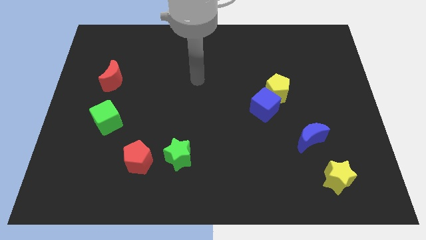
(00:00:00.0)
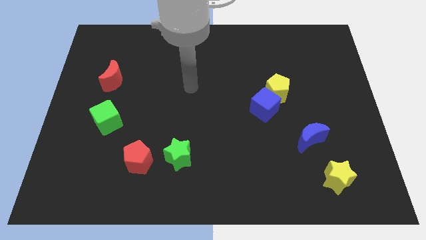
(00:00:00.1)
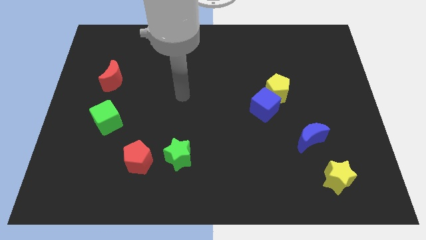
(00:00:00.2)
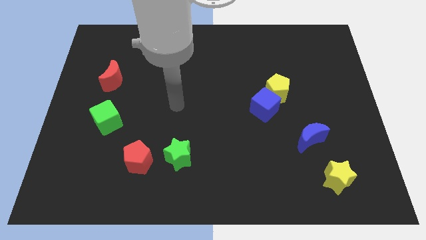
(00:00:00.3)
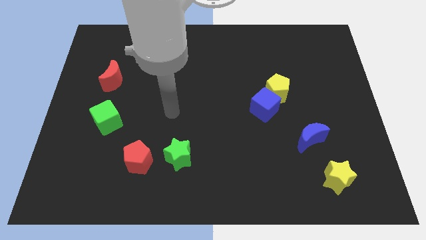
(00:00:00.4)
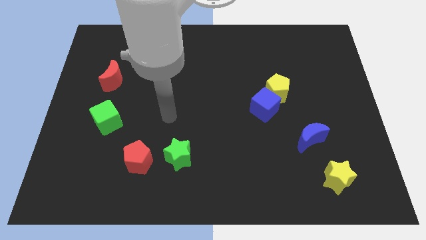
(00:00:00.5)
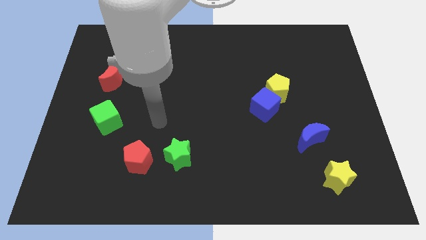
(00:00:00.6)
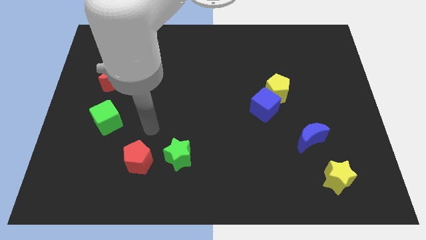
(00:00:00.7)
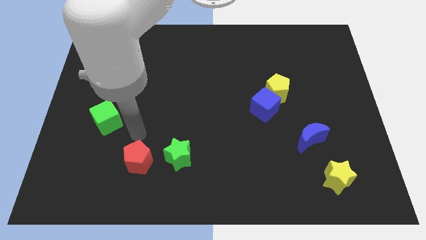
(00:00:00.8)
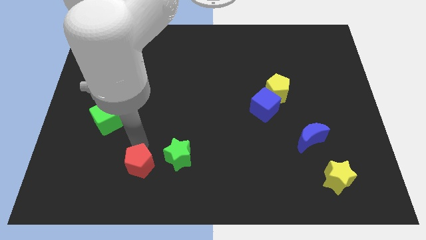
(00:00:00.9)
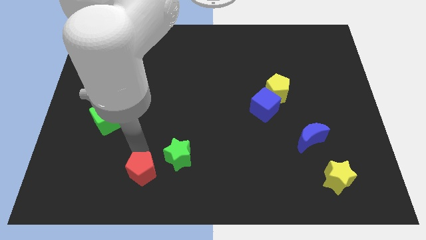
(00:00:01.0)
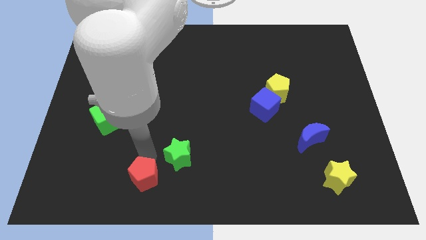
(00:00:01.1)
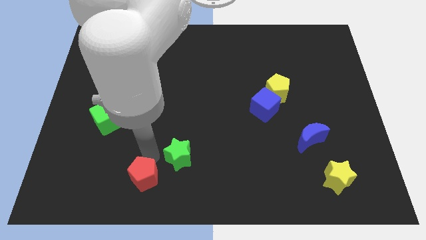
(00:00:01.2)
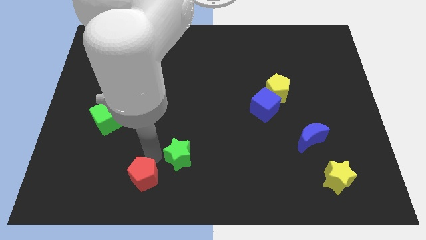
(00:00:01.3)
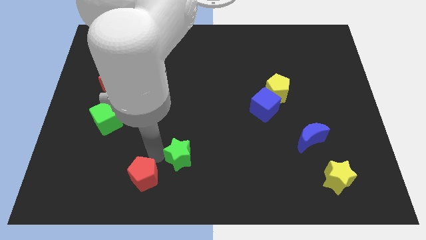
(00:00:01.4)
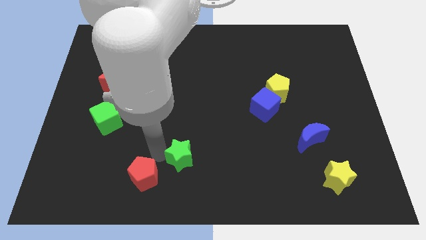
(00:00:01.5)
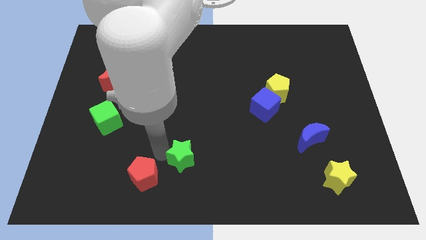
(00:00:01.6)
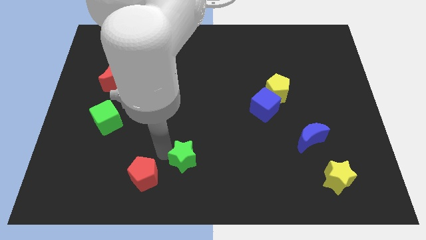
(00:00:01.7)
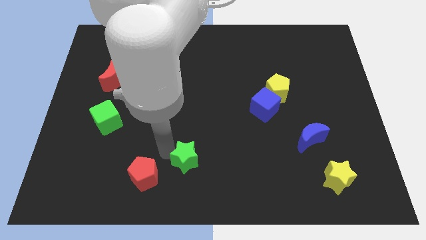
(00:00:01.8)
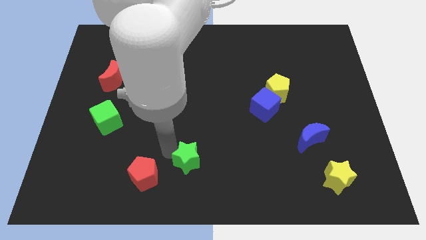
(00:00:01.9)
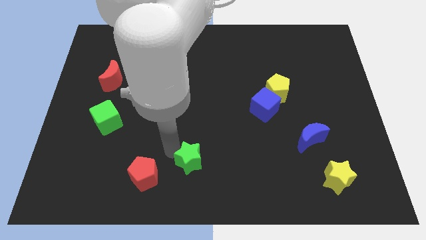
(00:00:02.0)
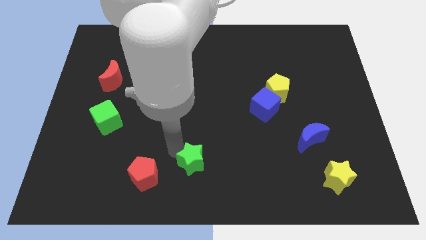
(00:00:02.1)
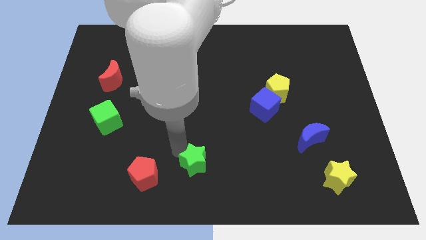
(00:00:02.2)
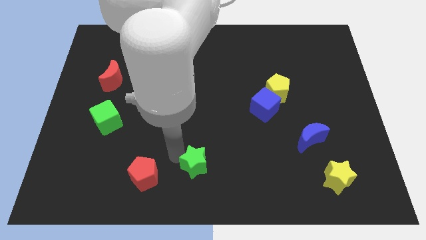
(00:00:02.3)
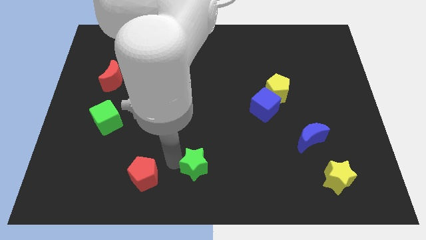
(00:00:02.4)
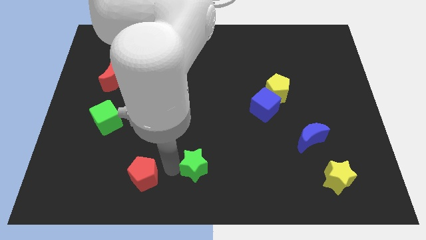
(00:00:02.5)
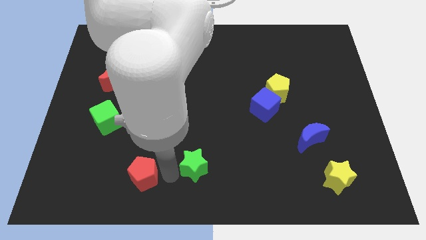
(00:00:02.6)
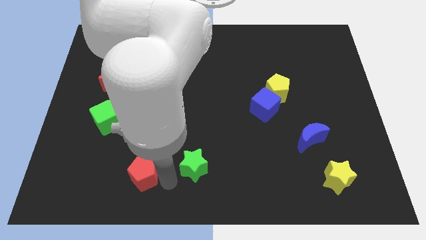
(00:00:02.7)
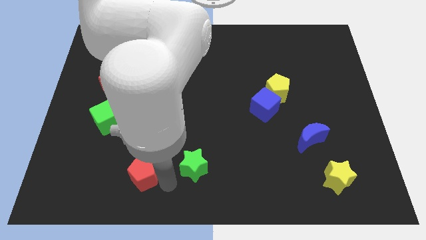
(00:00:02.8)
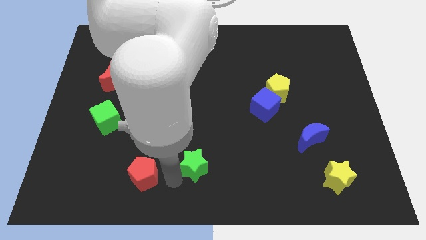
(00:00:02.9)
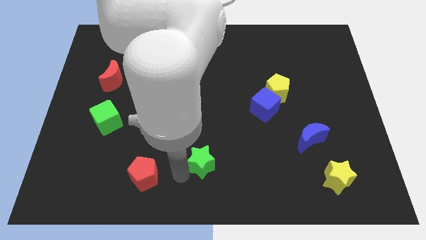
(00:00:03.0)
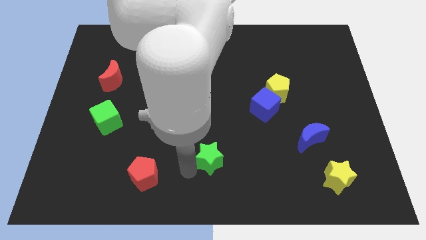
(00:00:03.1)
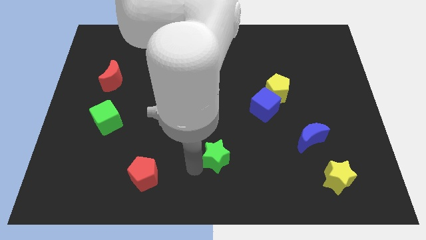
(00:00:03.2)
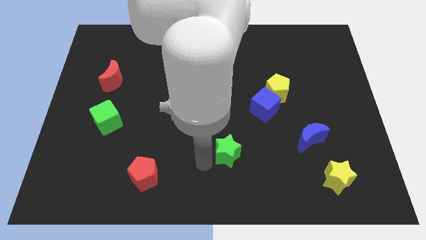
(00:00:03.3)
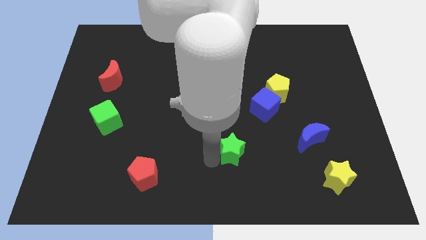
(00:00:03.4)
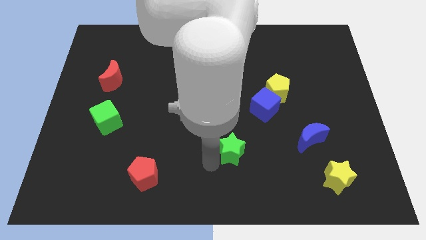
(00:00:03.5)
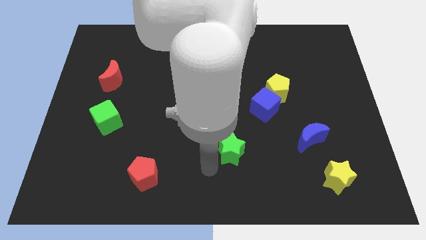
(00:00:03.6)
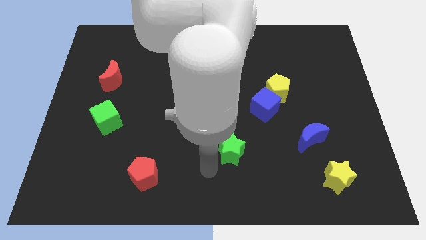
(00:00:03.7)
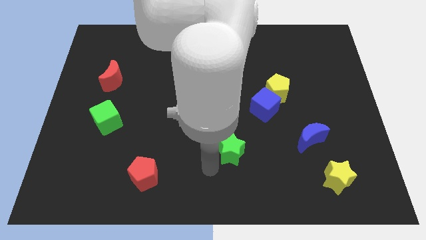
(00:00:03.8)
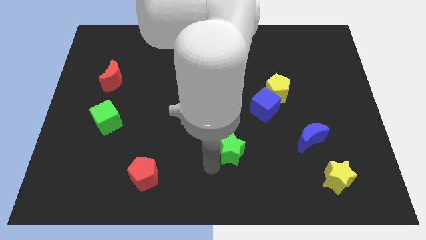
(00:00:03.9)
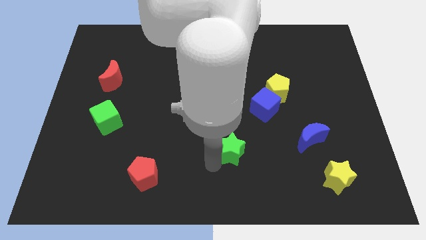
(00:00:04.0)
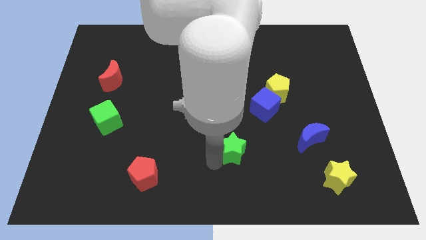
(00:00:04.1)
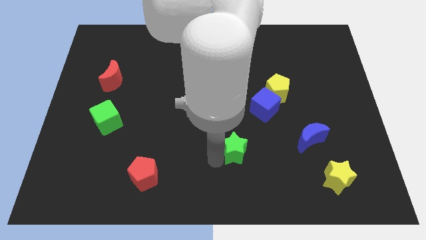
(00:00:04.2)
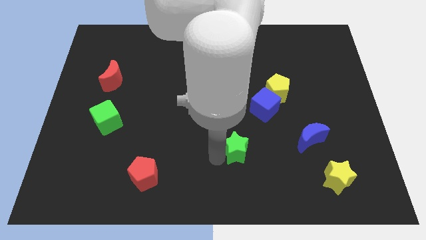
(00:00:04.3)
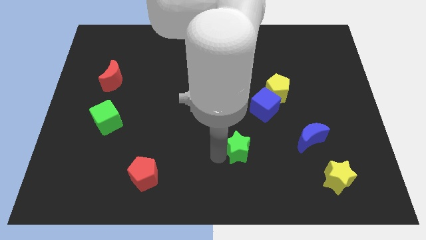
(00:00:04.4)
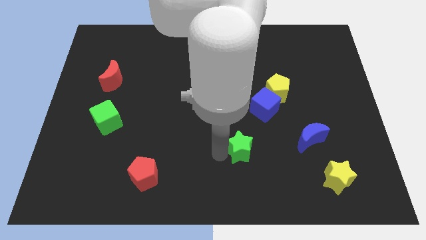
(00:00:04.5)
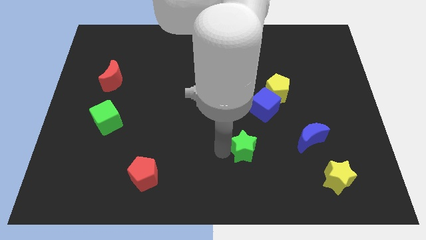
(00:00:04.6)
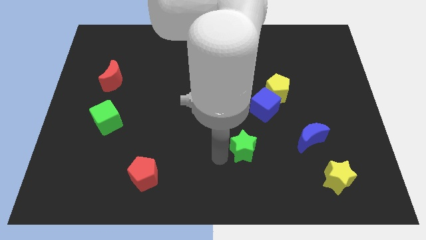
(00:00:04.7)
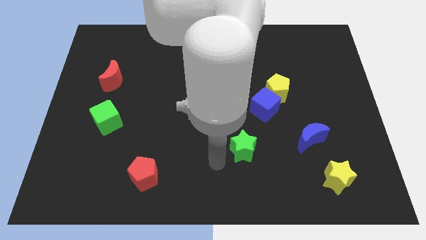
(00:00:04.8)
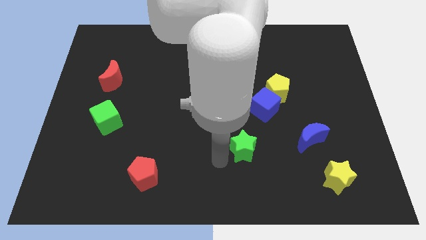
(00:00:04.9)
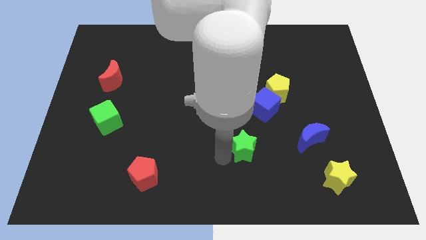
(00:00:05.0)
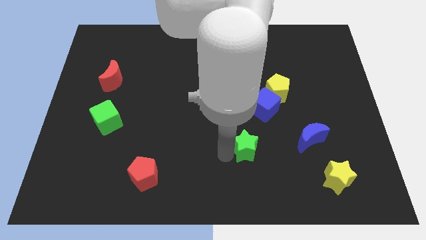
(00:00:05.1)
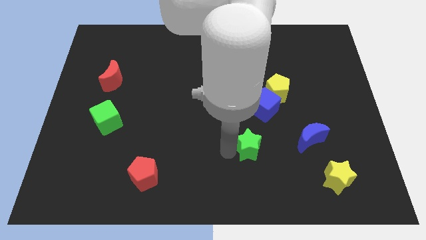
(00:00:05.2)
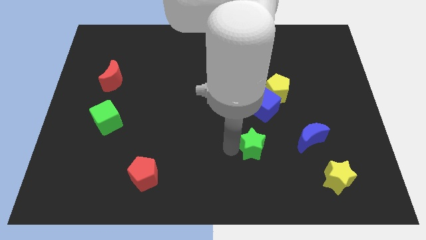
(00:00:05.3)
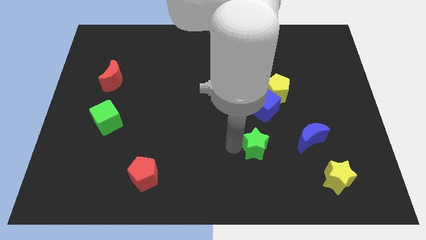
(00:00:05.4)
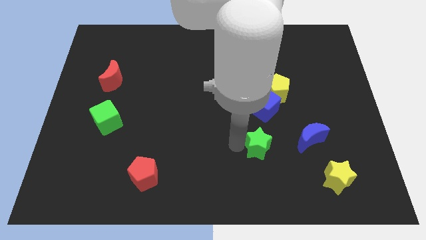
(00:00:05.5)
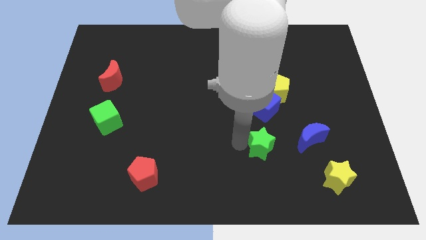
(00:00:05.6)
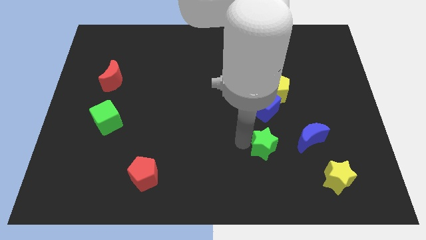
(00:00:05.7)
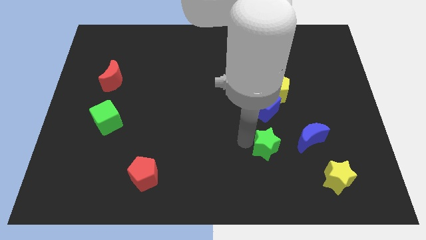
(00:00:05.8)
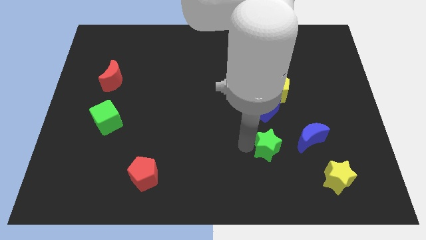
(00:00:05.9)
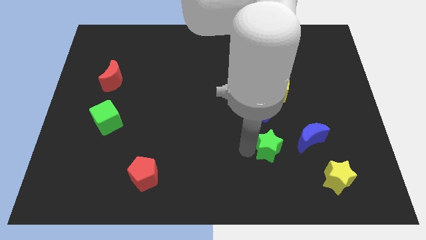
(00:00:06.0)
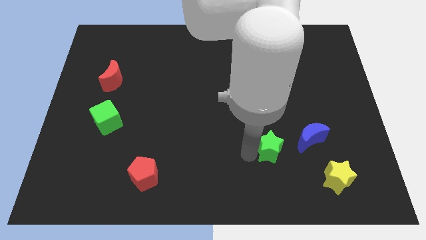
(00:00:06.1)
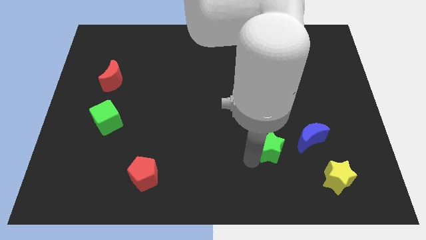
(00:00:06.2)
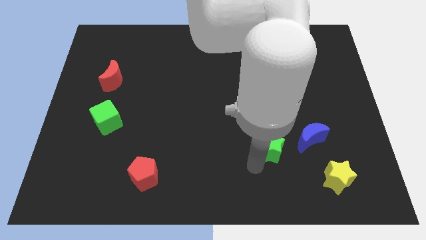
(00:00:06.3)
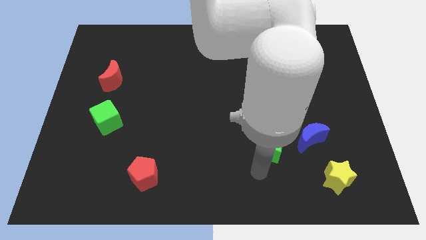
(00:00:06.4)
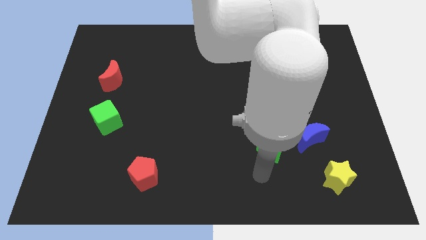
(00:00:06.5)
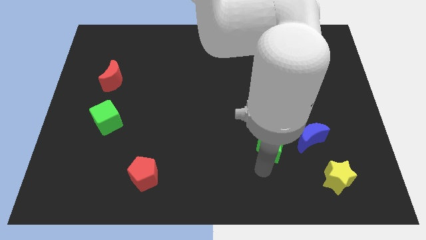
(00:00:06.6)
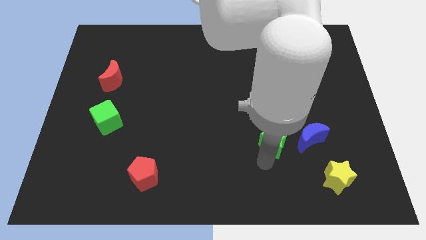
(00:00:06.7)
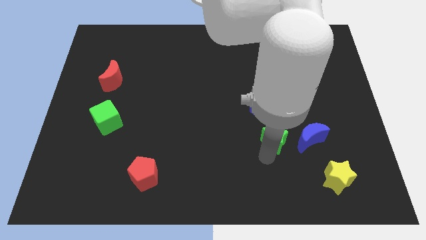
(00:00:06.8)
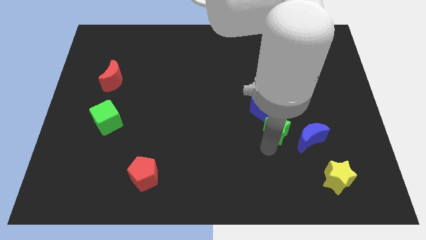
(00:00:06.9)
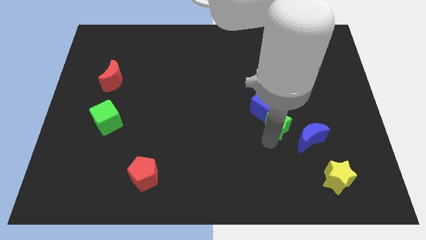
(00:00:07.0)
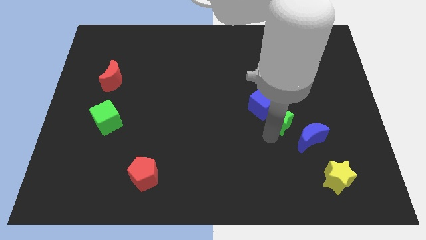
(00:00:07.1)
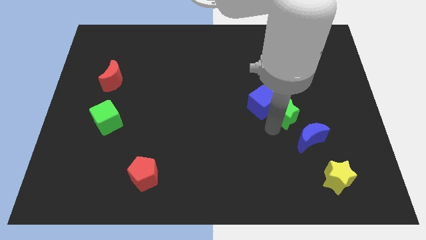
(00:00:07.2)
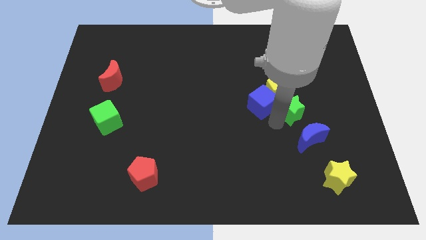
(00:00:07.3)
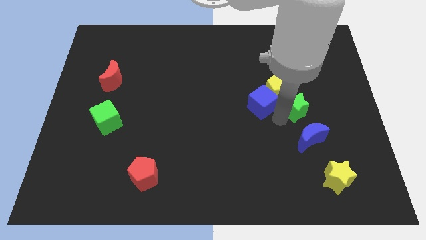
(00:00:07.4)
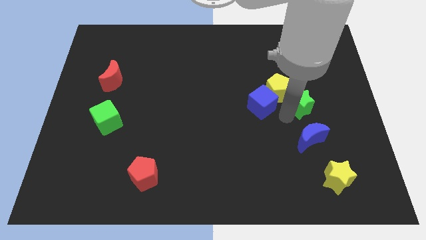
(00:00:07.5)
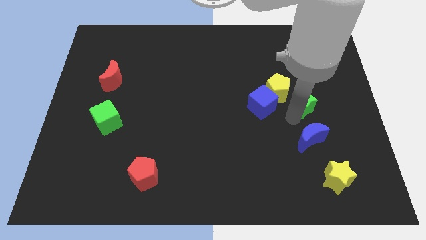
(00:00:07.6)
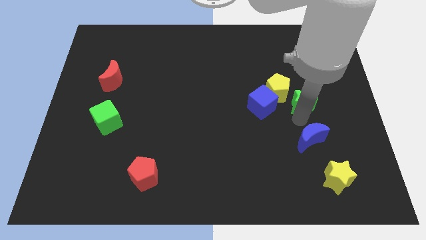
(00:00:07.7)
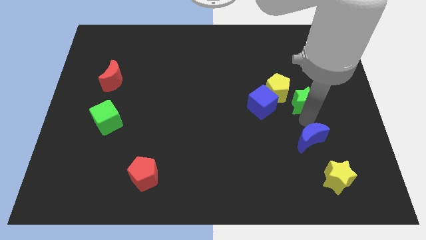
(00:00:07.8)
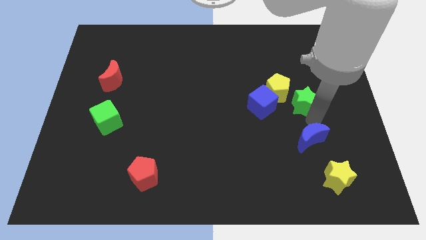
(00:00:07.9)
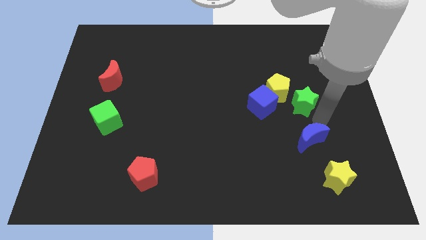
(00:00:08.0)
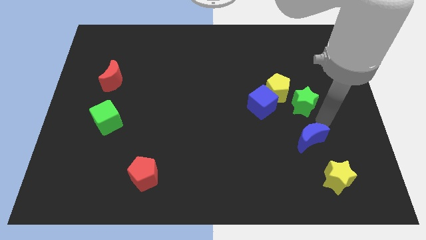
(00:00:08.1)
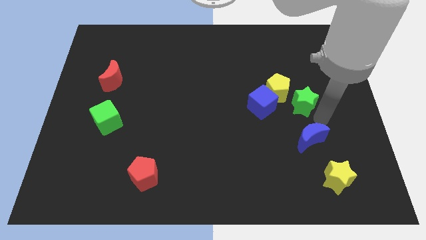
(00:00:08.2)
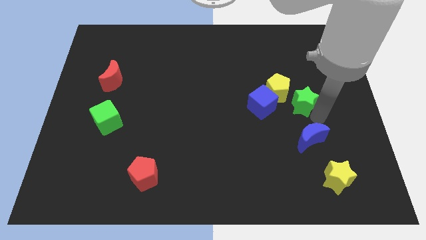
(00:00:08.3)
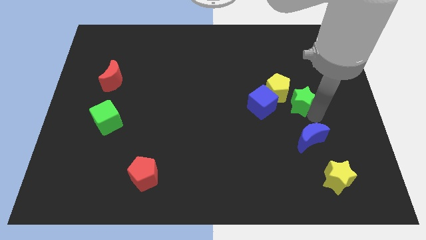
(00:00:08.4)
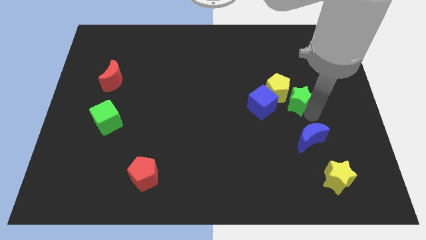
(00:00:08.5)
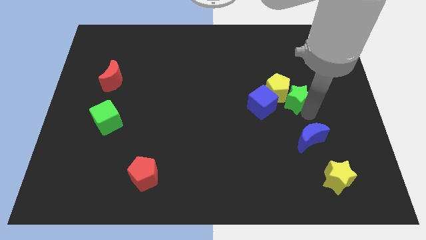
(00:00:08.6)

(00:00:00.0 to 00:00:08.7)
push the green star diagonally up and to the right of the blue cube
